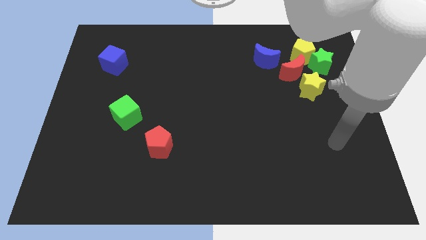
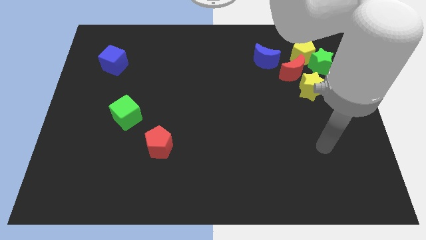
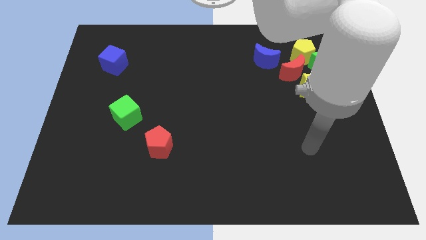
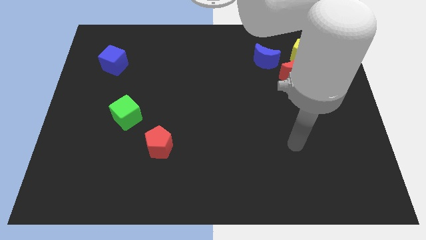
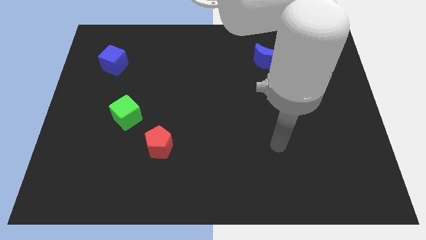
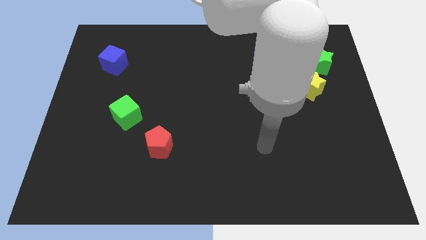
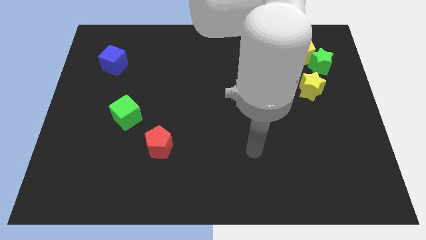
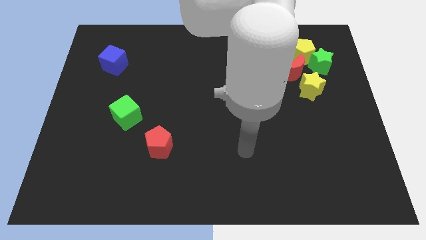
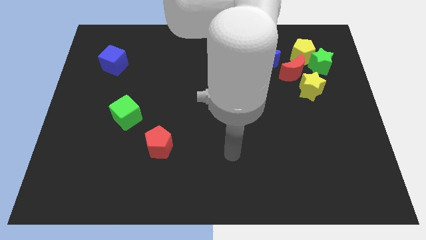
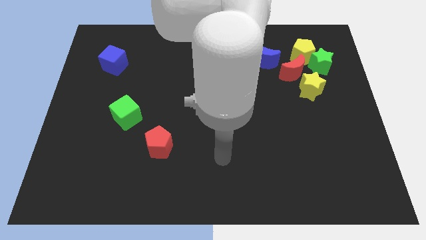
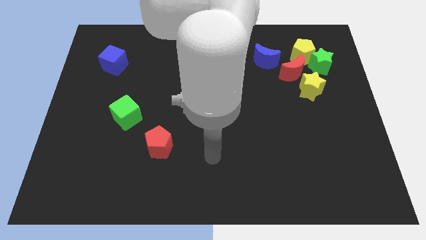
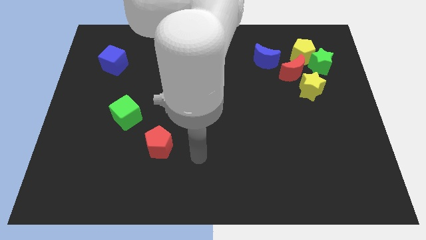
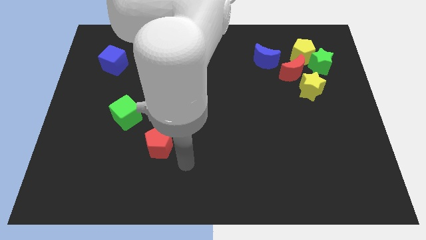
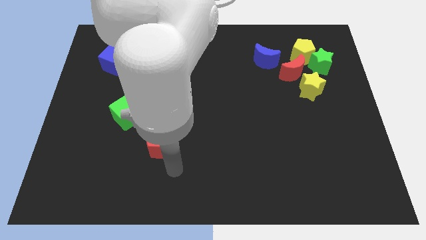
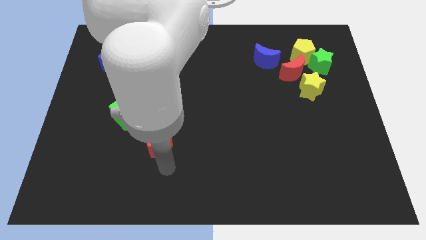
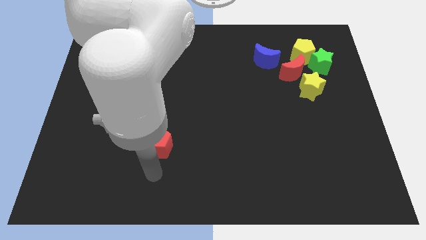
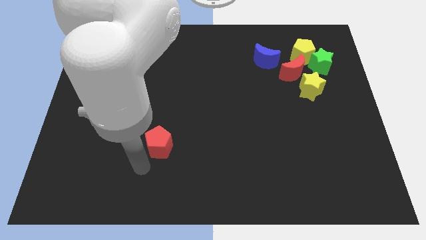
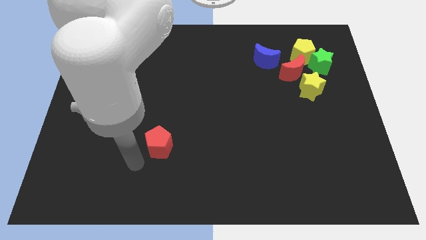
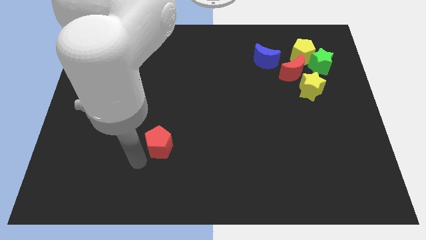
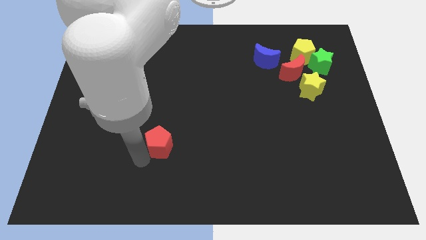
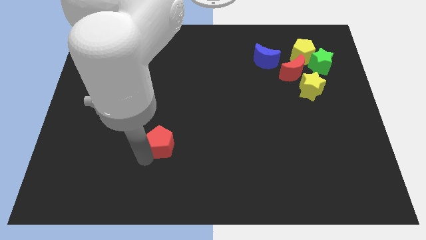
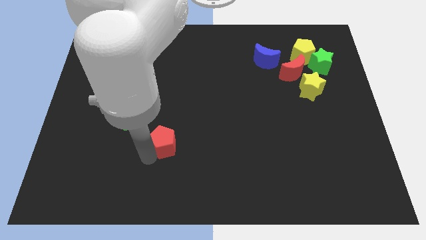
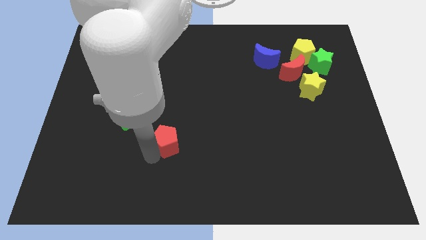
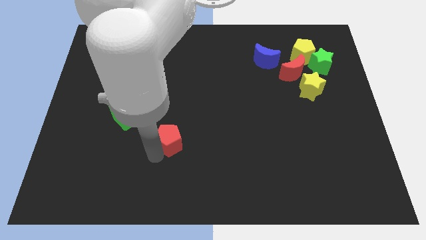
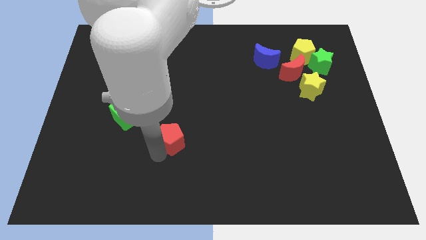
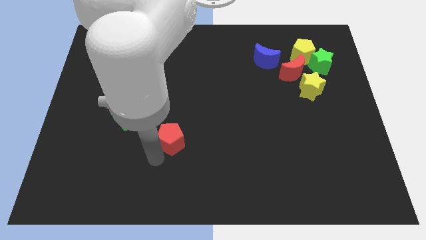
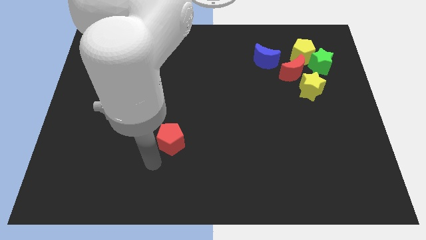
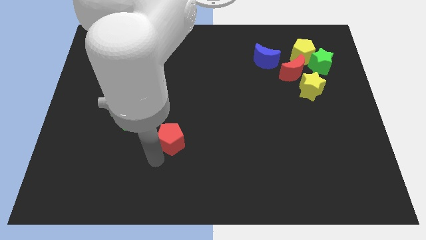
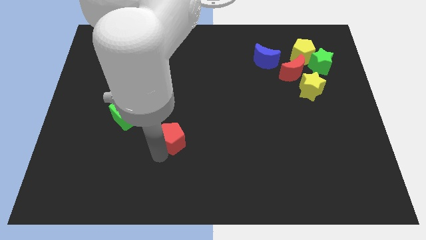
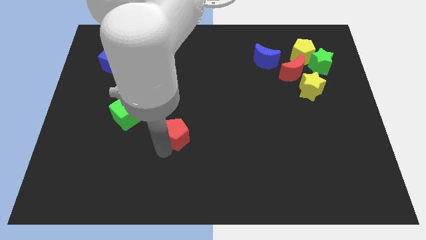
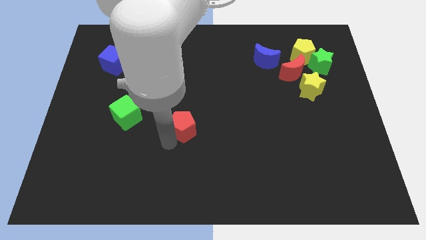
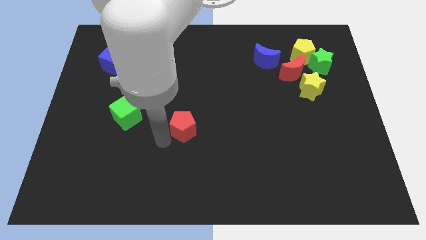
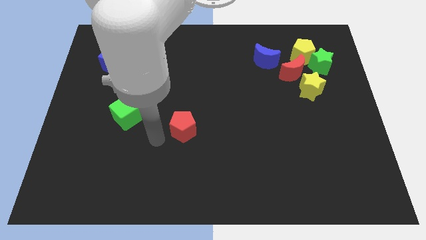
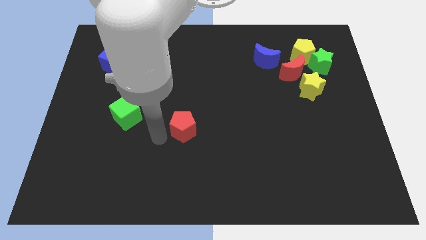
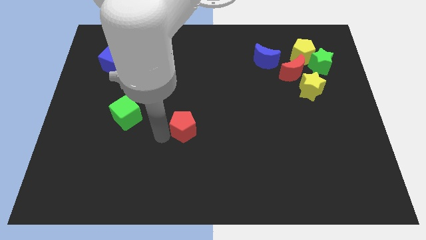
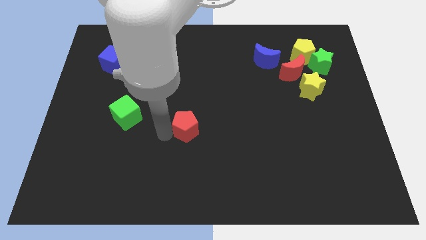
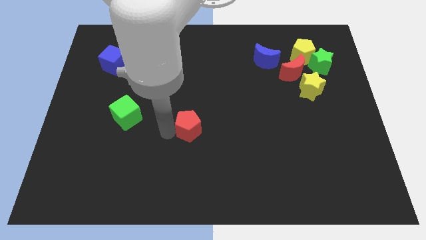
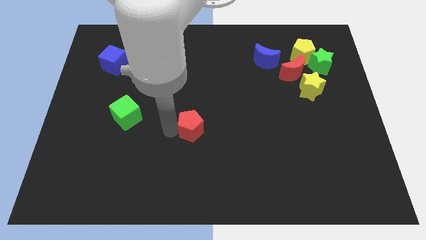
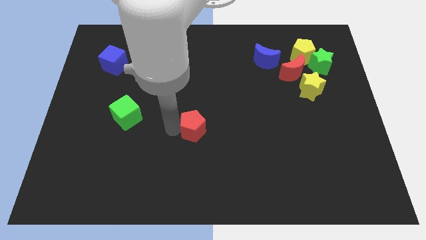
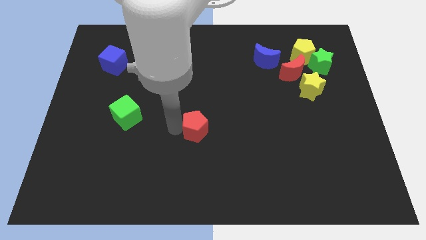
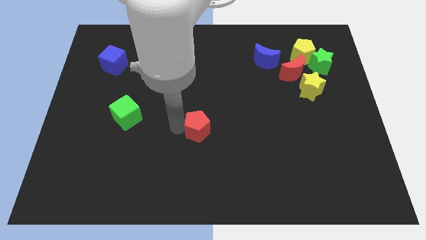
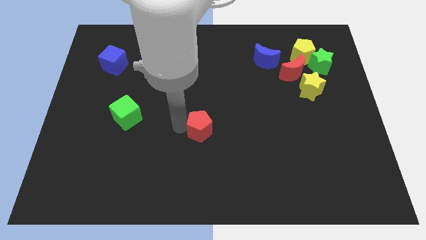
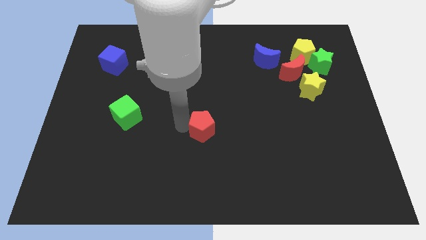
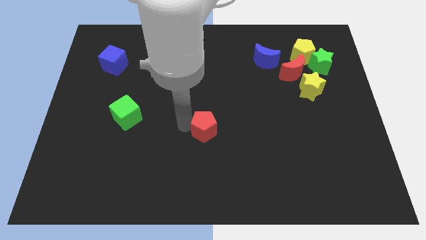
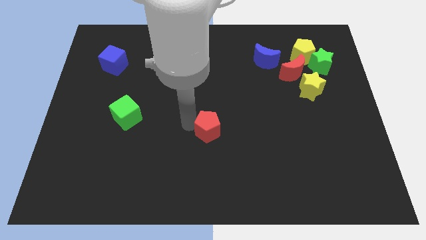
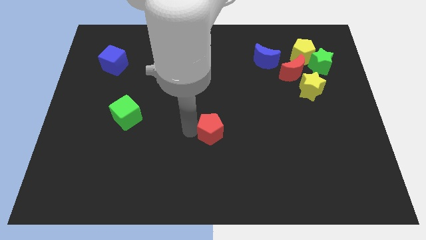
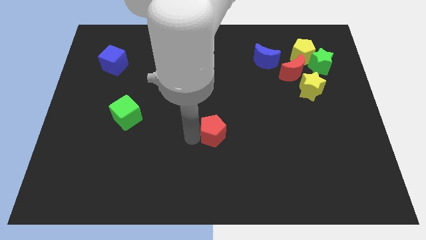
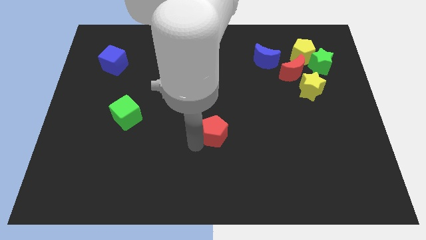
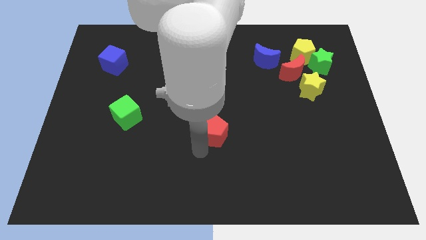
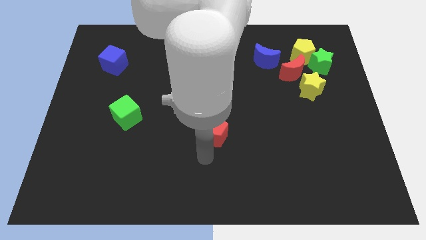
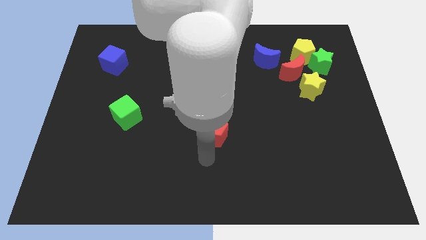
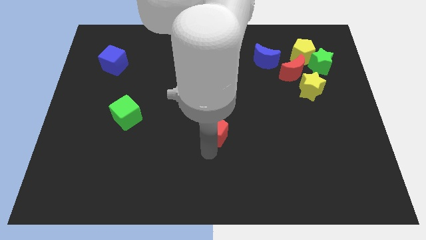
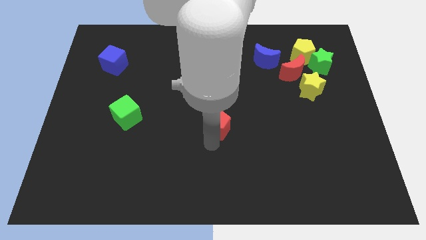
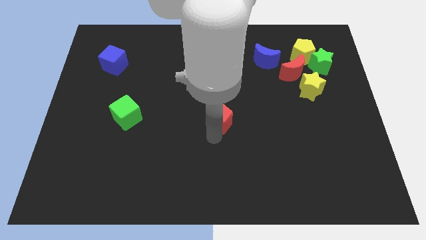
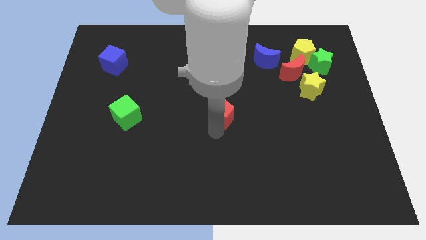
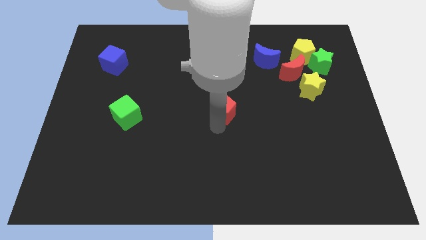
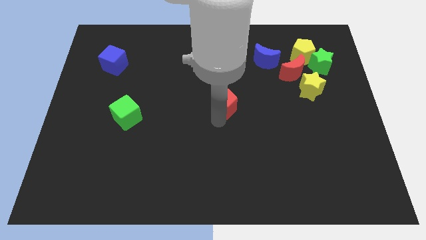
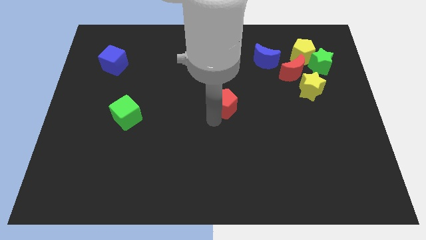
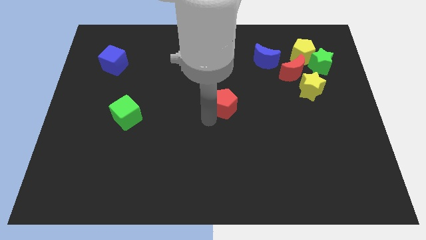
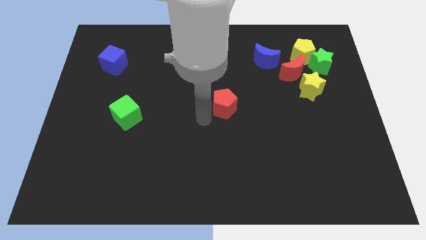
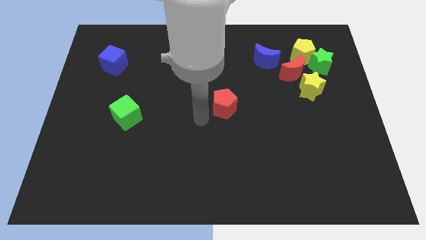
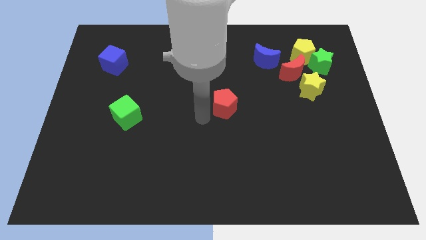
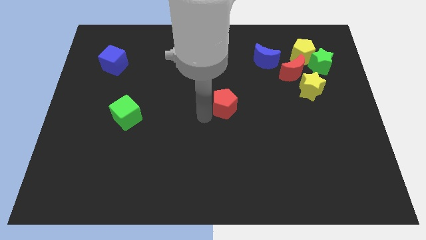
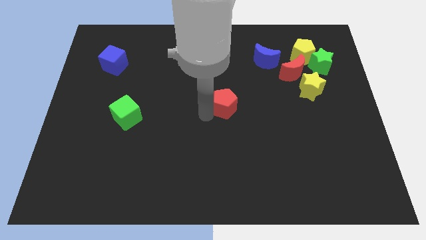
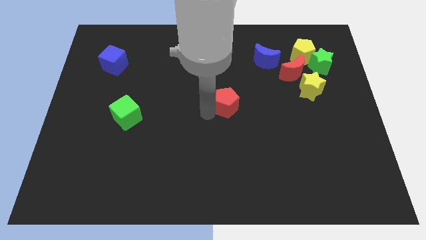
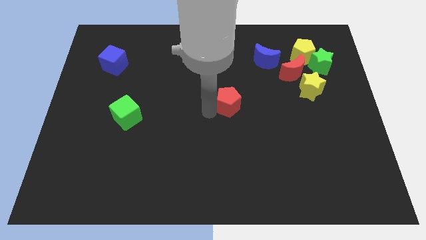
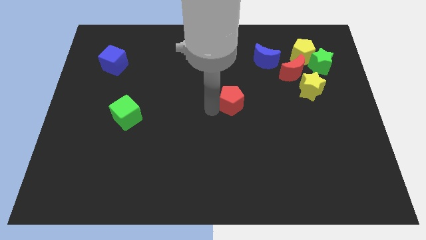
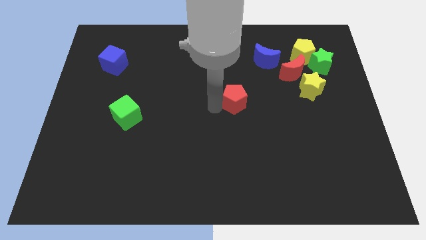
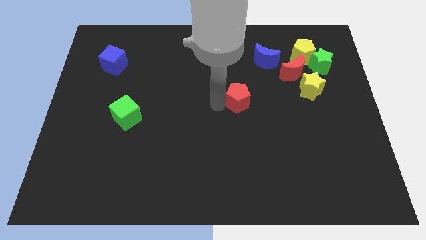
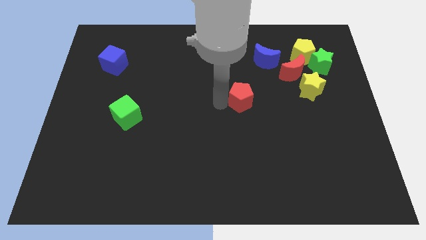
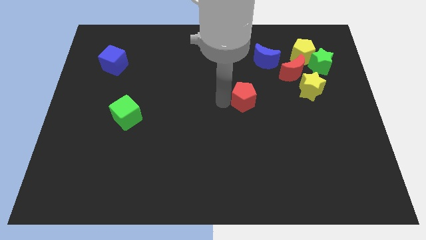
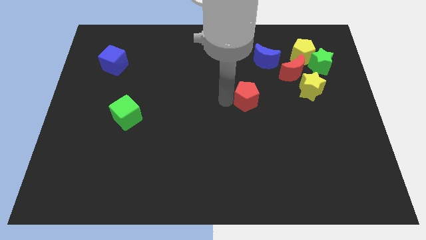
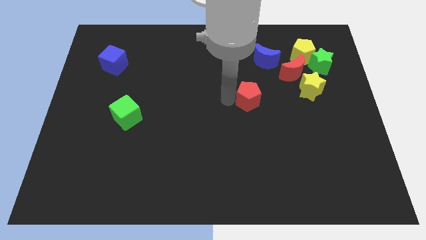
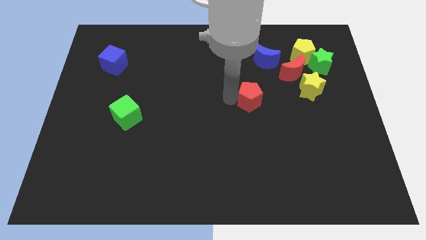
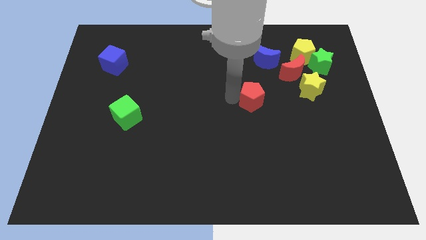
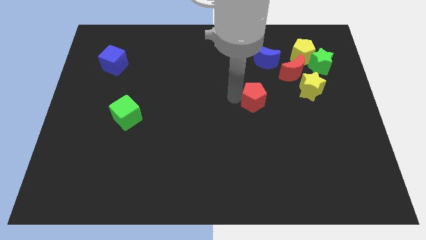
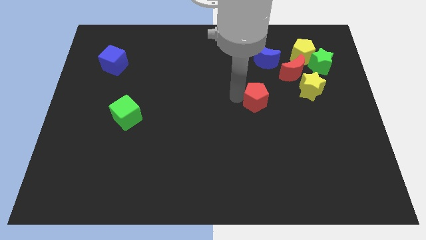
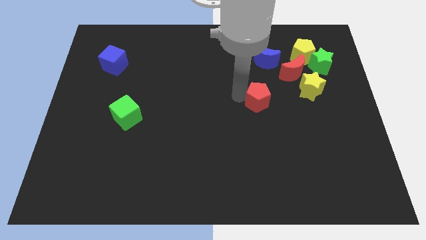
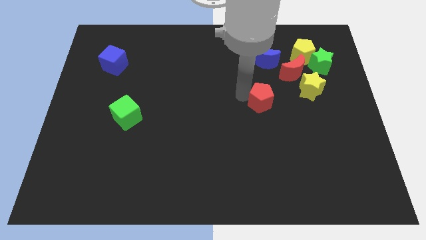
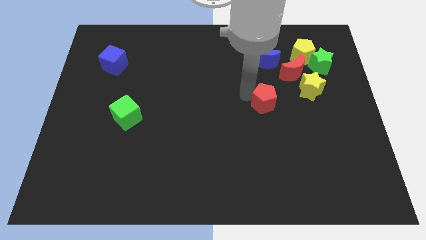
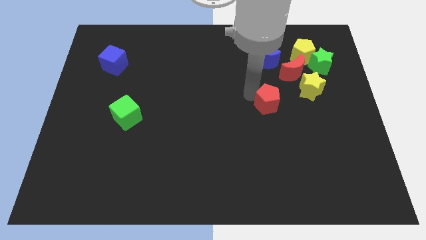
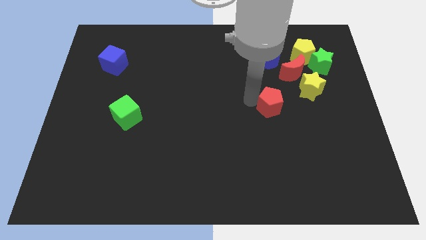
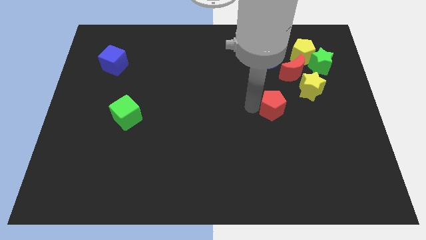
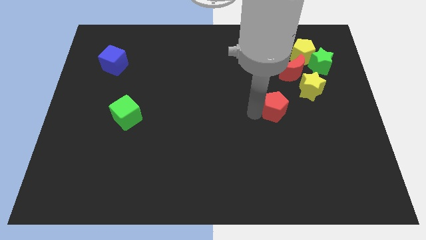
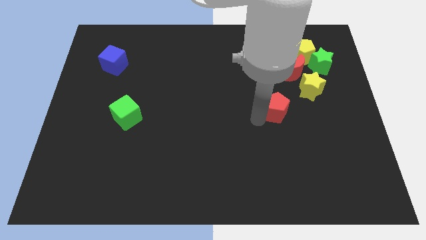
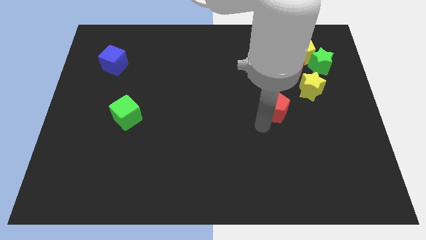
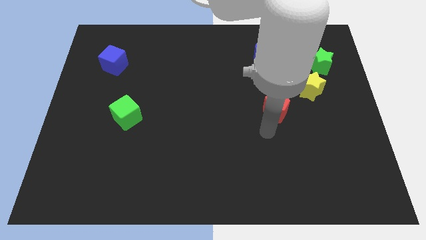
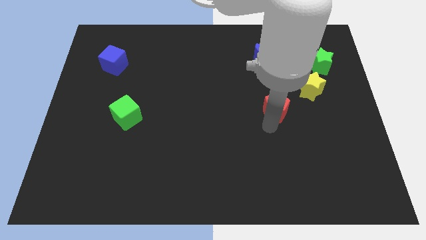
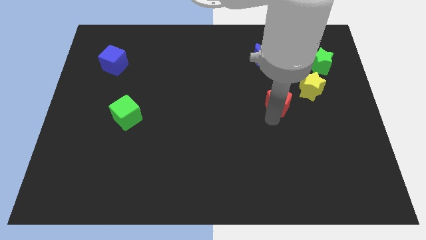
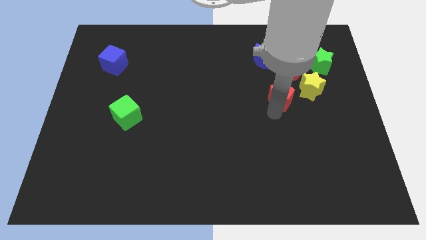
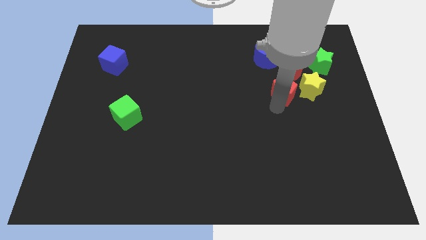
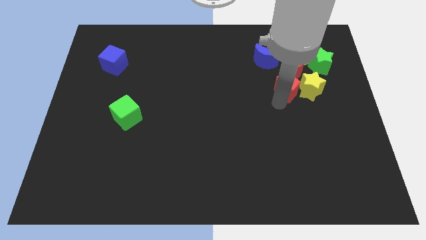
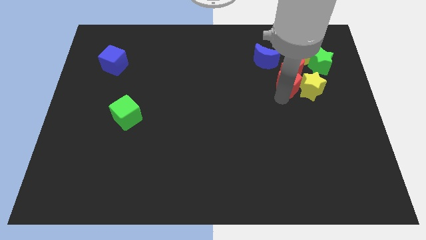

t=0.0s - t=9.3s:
move the red pentagon towards the red moon
